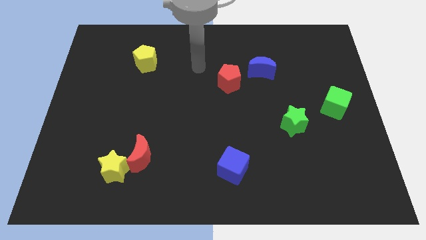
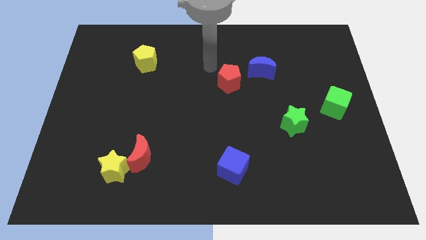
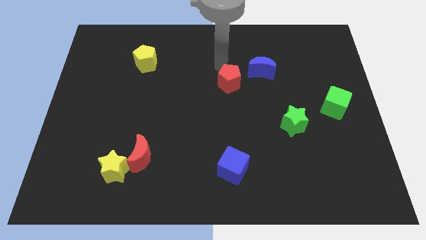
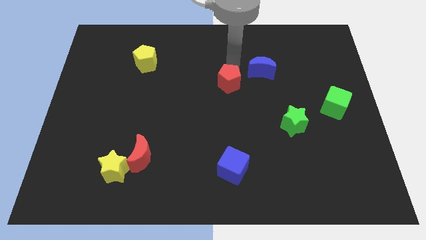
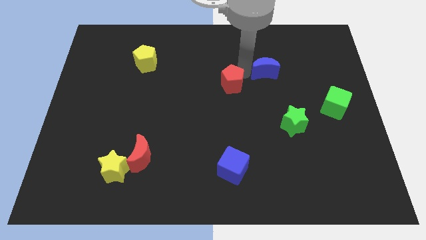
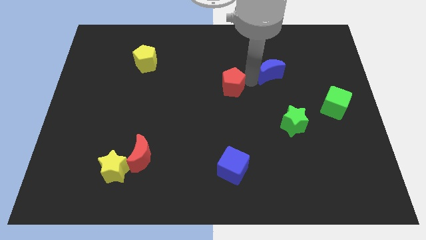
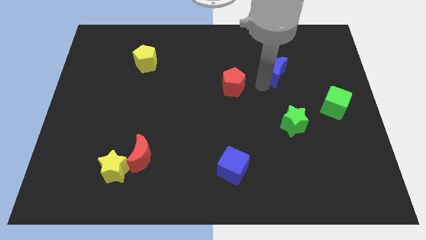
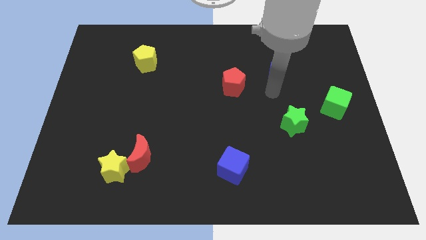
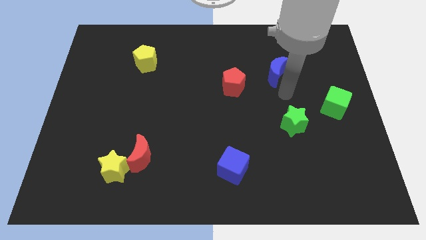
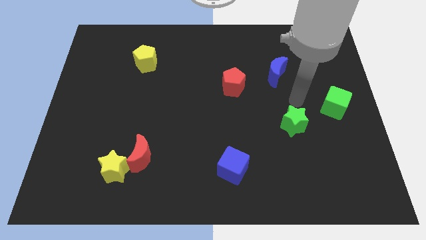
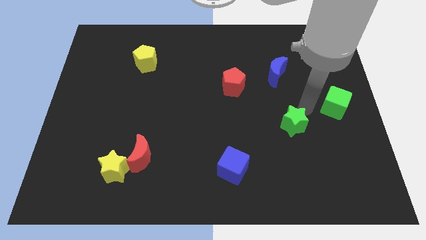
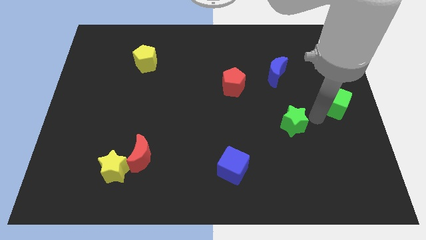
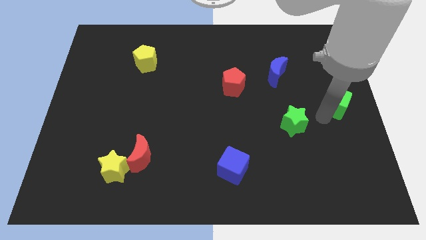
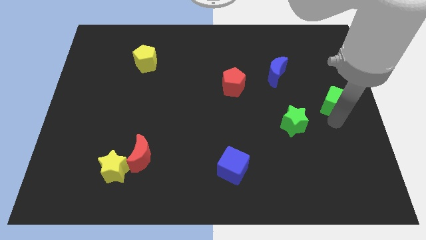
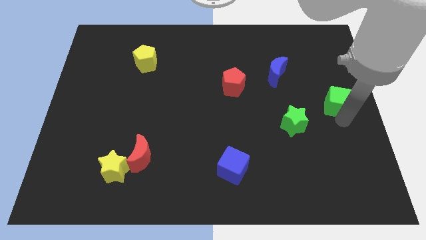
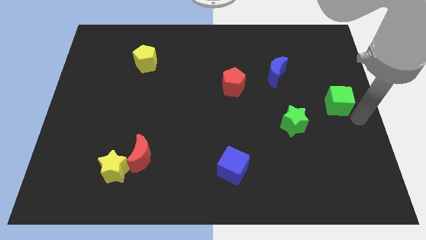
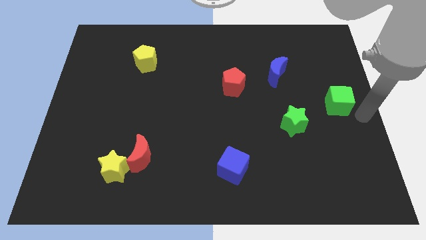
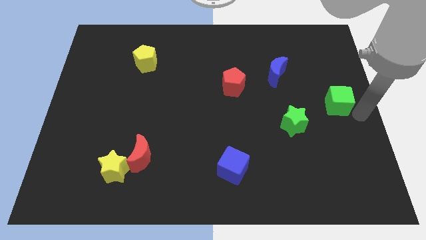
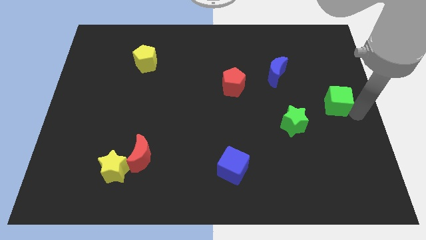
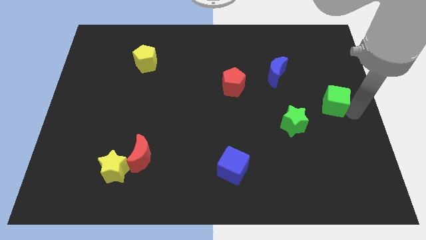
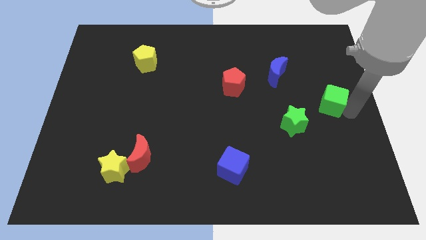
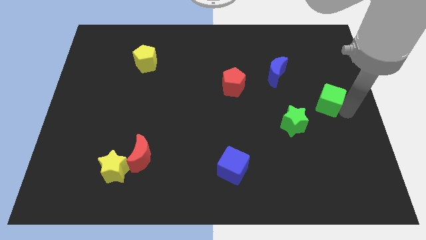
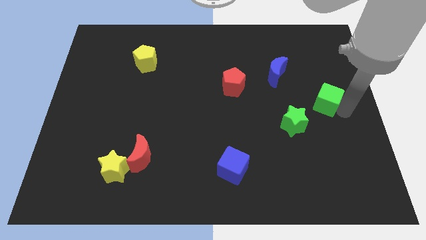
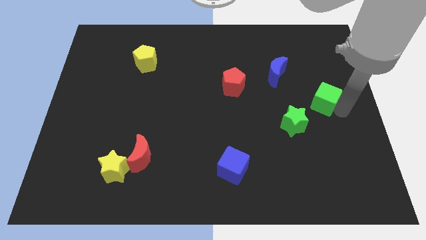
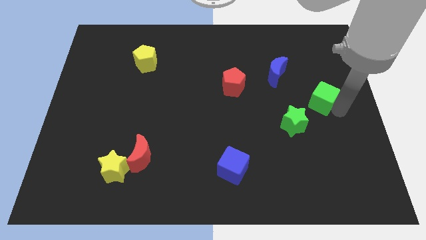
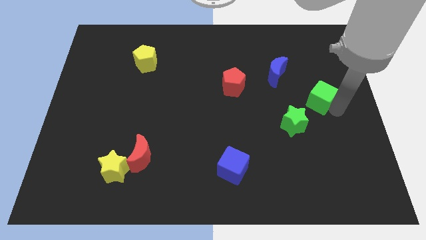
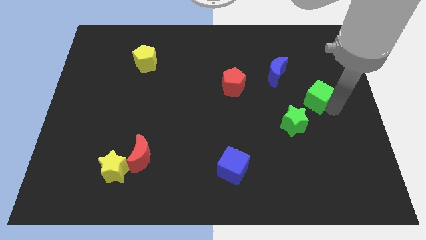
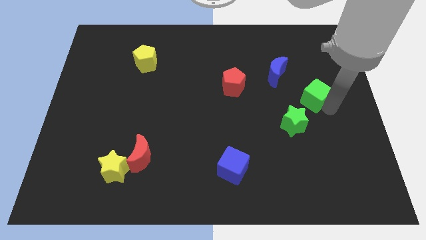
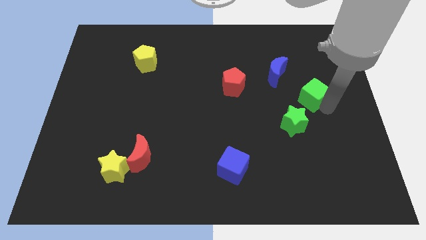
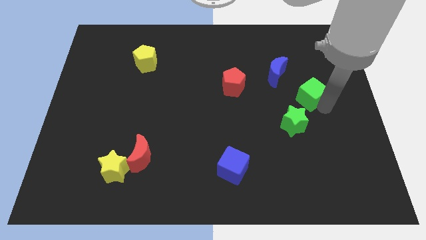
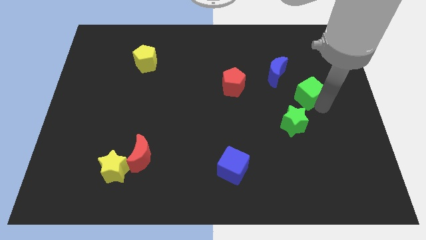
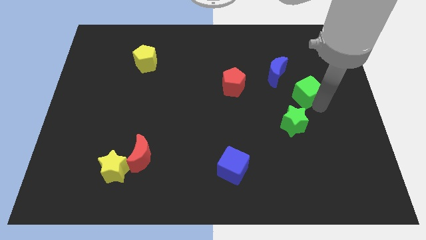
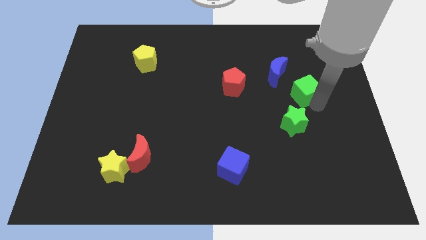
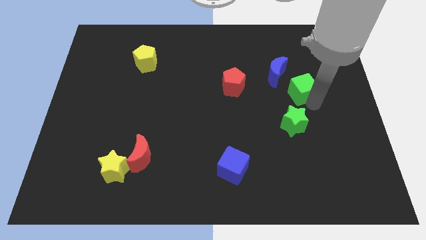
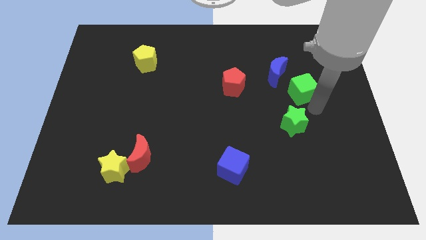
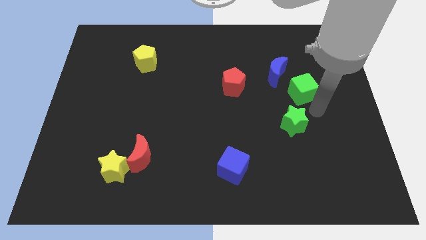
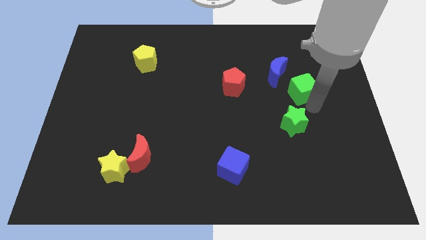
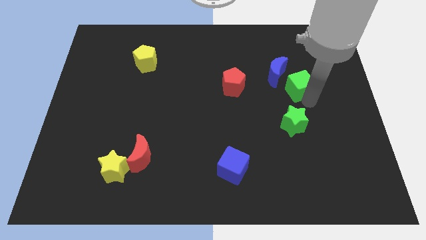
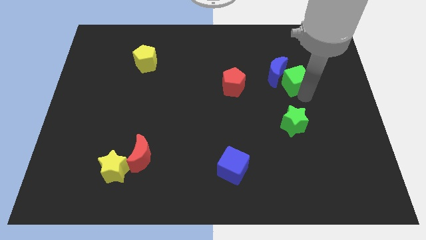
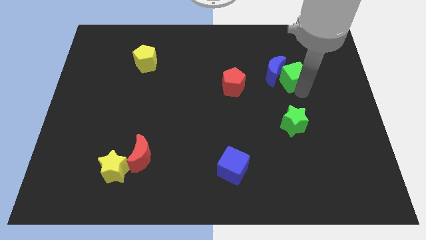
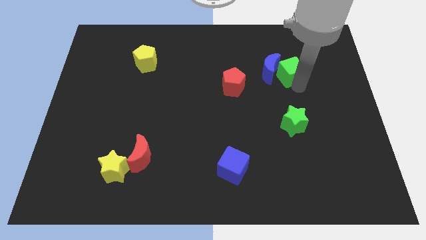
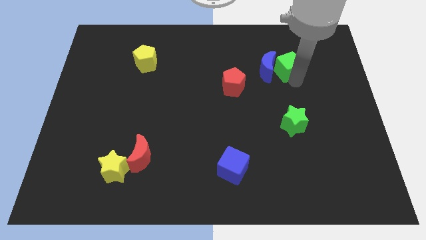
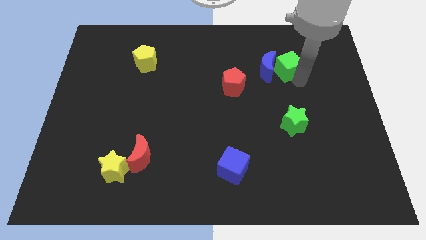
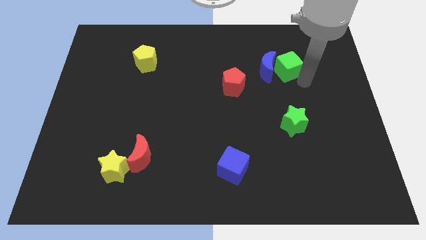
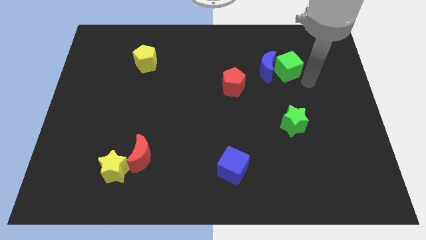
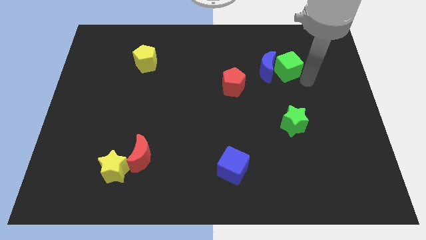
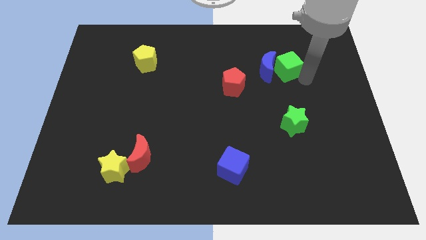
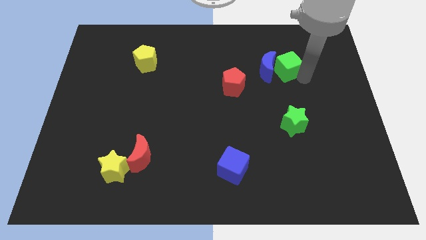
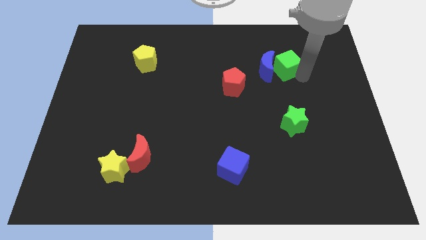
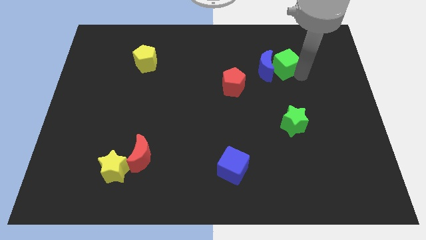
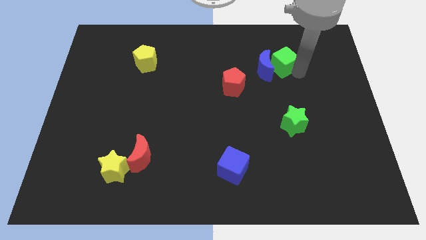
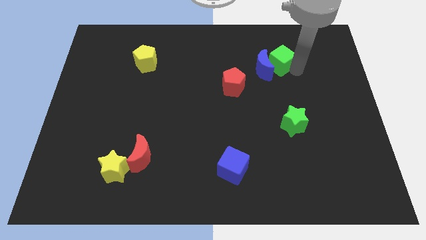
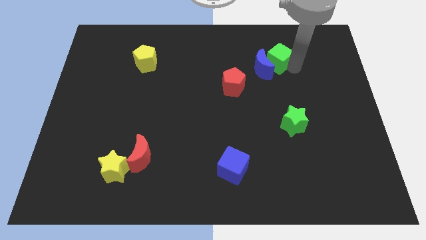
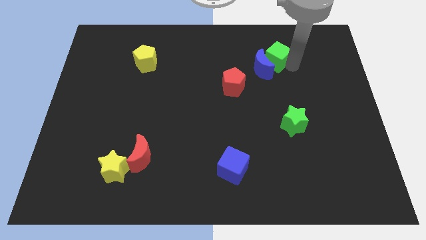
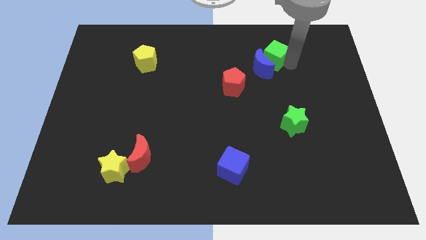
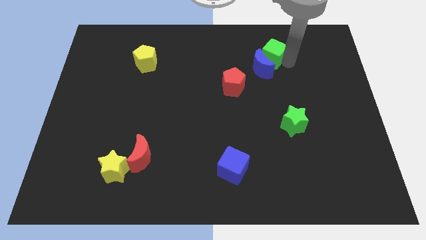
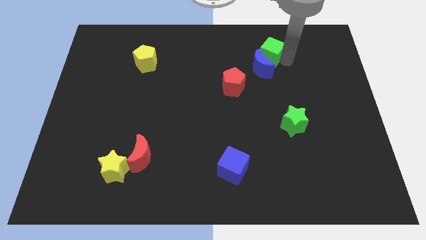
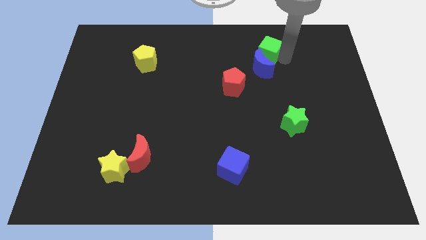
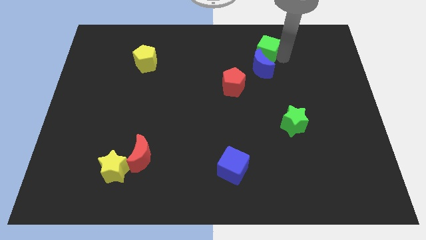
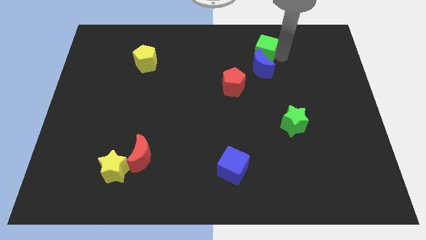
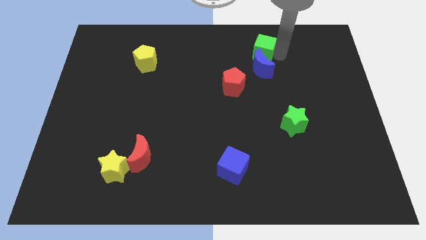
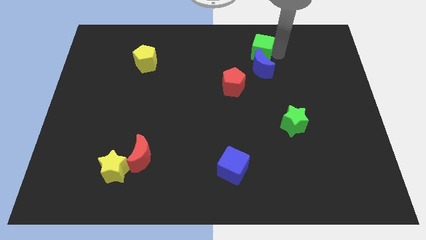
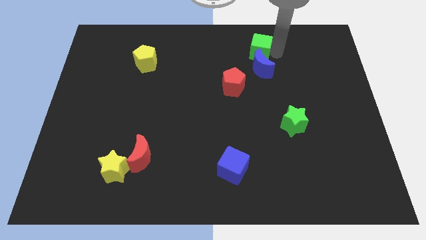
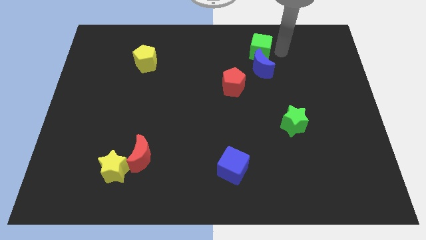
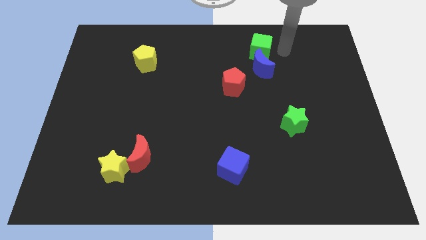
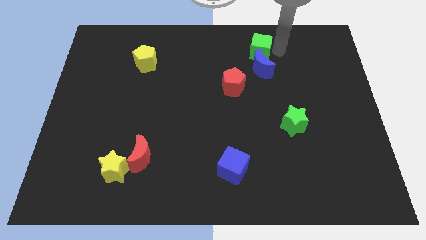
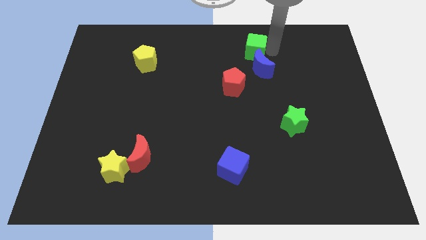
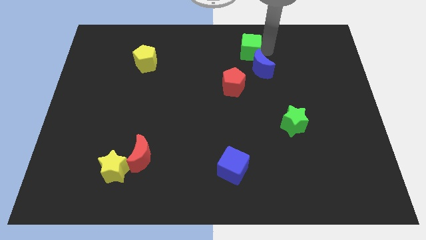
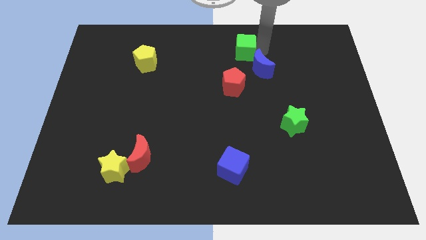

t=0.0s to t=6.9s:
put the green cube to the towards your base
